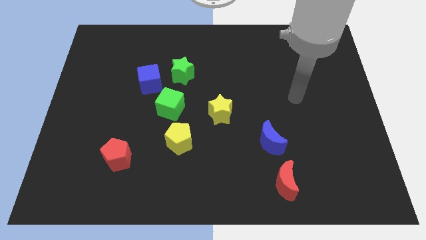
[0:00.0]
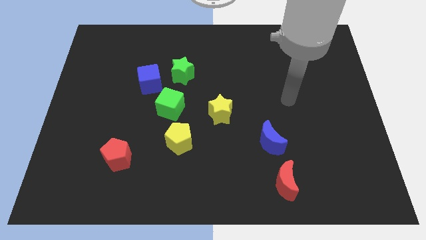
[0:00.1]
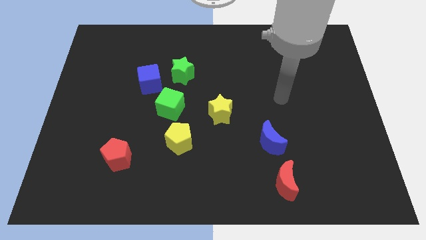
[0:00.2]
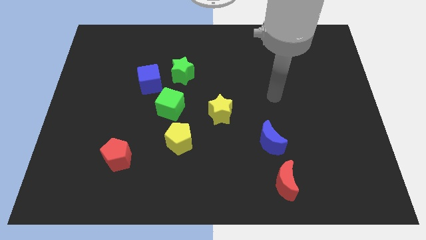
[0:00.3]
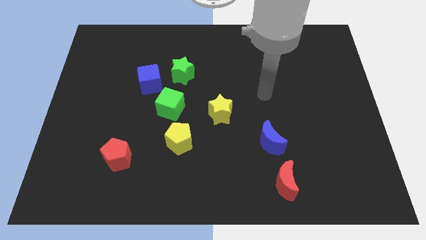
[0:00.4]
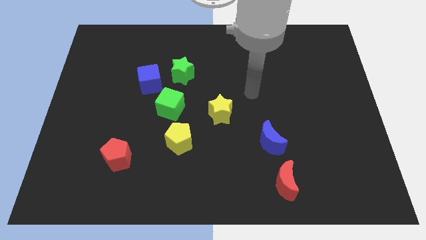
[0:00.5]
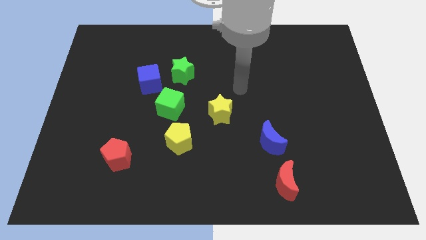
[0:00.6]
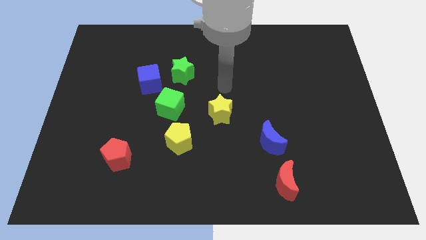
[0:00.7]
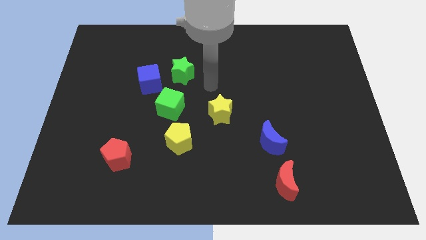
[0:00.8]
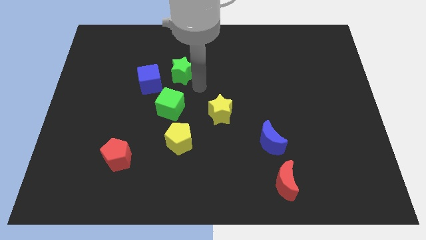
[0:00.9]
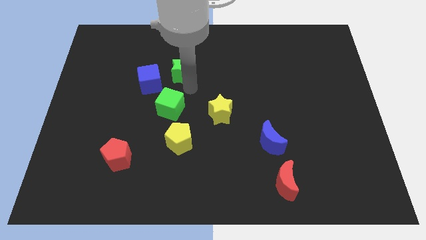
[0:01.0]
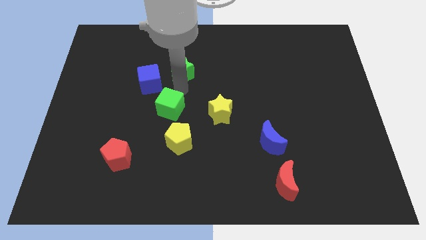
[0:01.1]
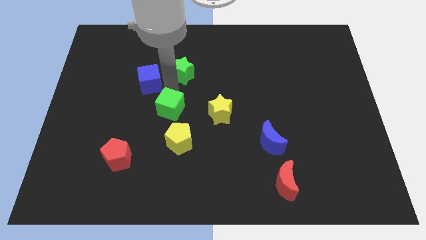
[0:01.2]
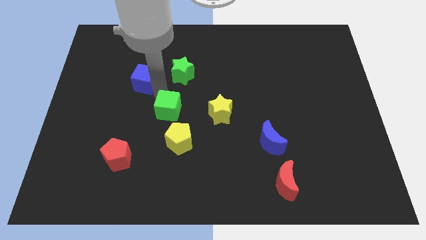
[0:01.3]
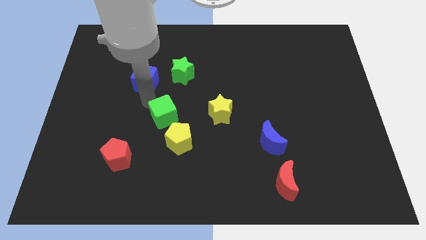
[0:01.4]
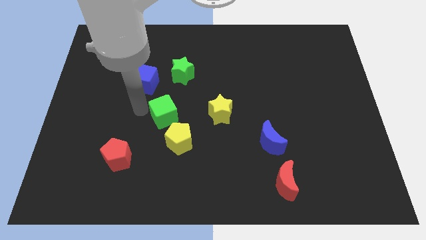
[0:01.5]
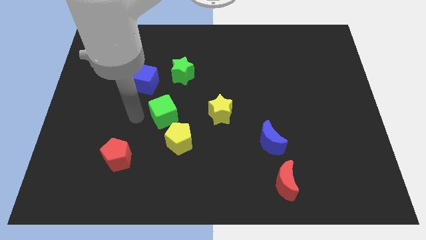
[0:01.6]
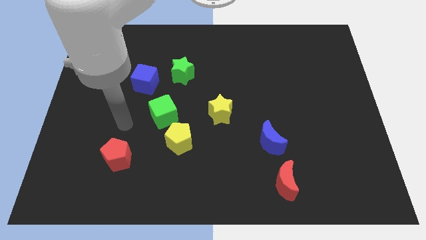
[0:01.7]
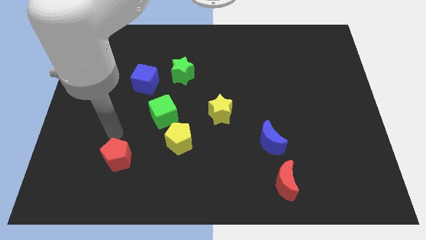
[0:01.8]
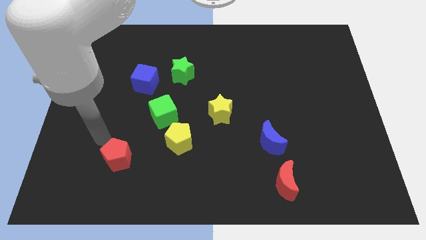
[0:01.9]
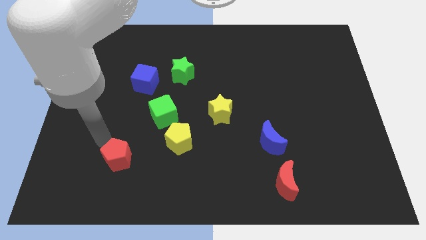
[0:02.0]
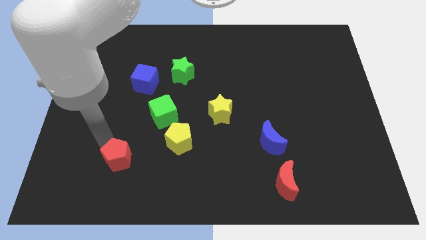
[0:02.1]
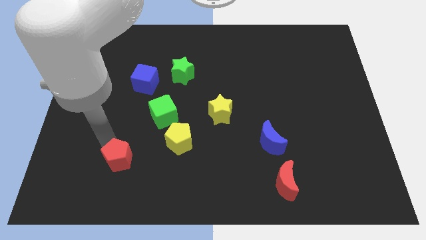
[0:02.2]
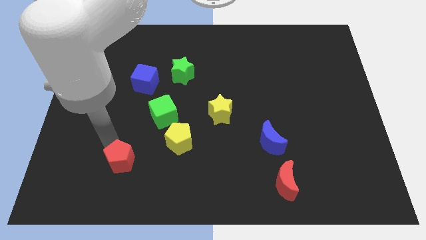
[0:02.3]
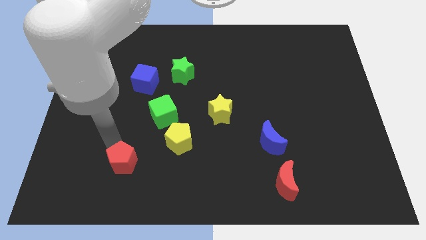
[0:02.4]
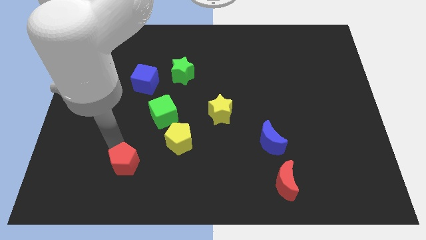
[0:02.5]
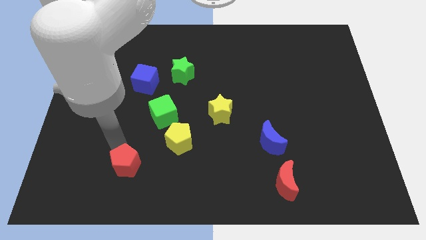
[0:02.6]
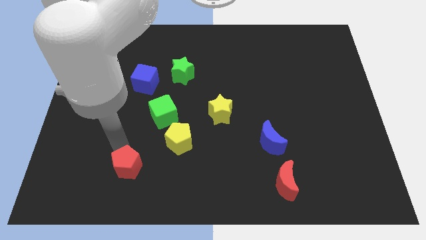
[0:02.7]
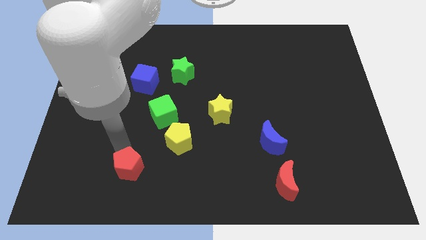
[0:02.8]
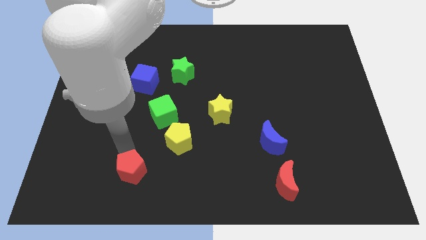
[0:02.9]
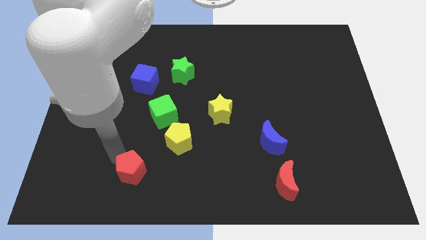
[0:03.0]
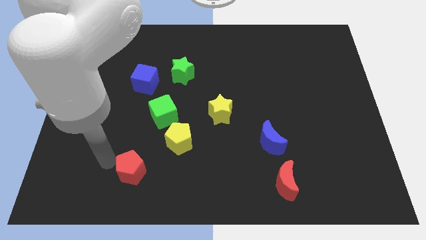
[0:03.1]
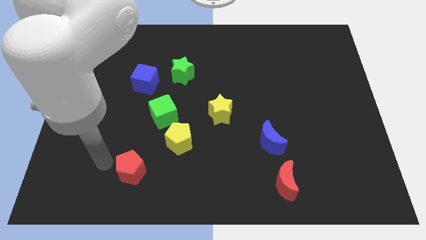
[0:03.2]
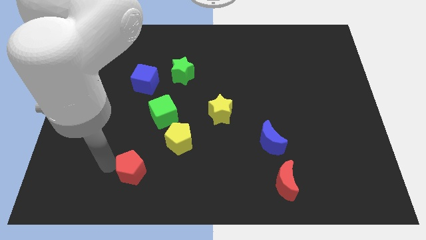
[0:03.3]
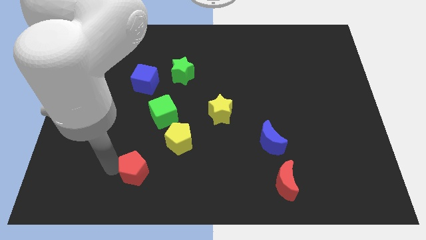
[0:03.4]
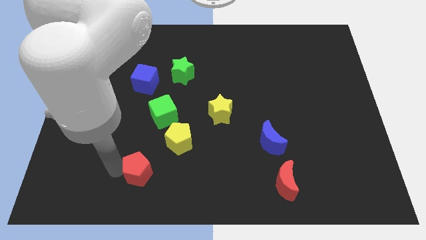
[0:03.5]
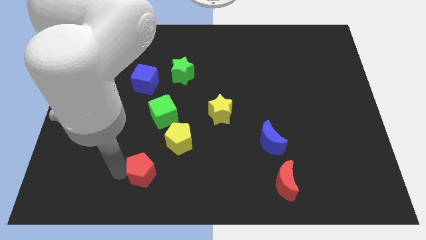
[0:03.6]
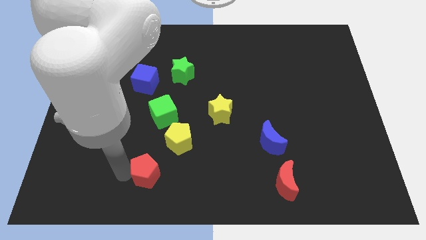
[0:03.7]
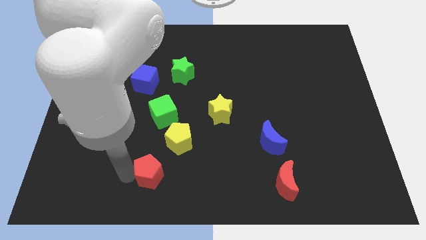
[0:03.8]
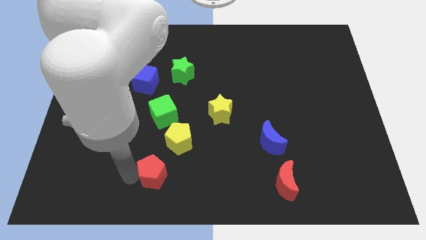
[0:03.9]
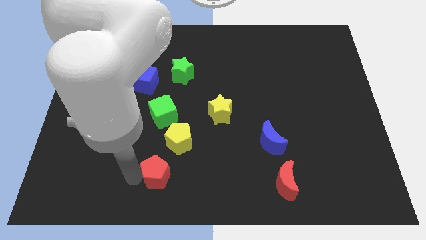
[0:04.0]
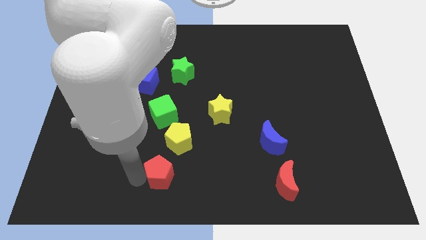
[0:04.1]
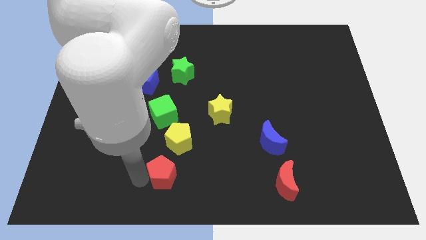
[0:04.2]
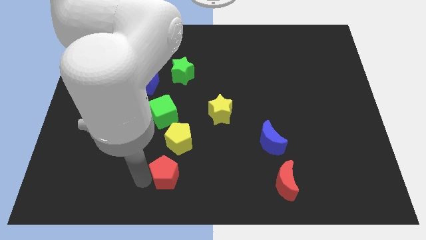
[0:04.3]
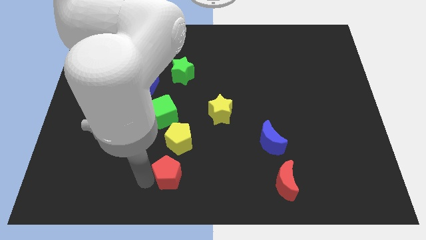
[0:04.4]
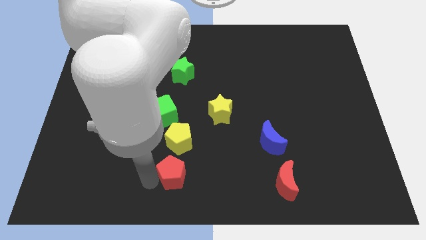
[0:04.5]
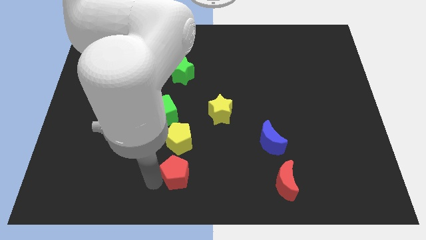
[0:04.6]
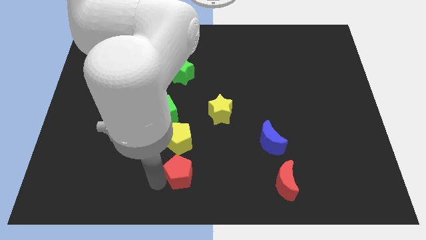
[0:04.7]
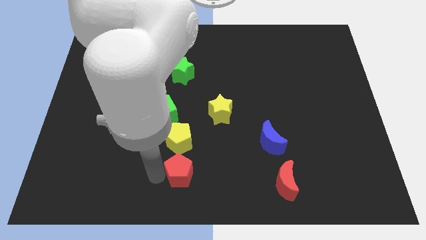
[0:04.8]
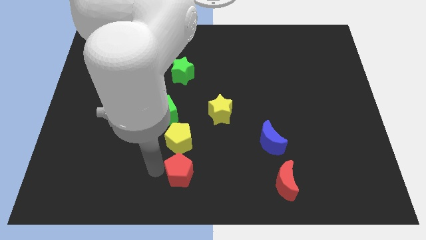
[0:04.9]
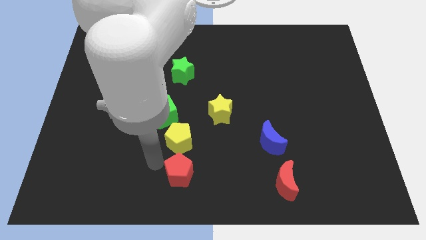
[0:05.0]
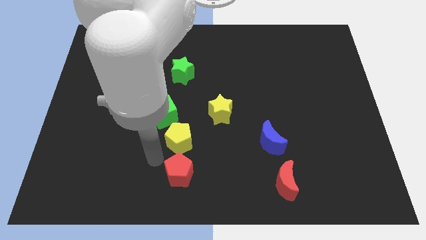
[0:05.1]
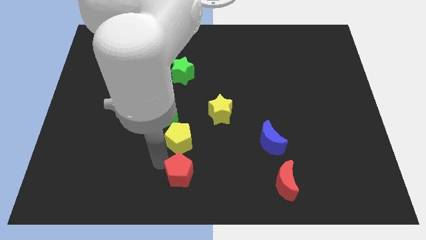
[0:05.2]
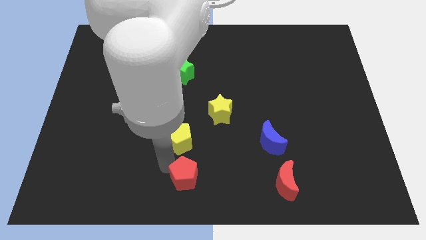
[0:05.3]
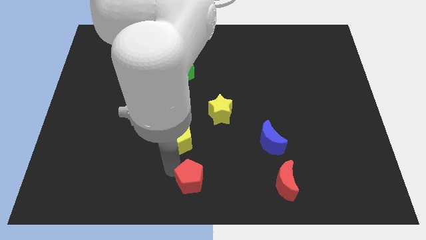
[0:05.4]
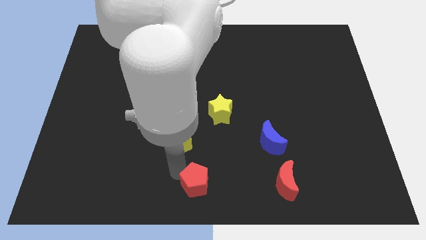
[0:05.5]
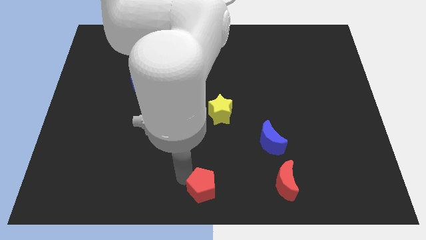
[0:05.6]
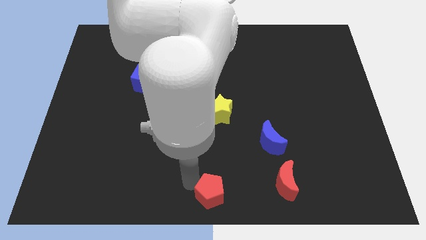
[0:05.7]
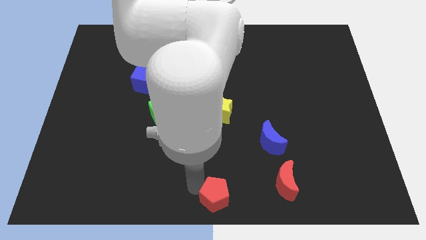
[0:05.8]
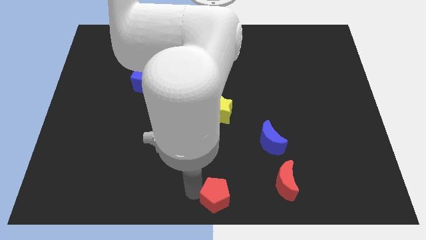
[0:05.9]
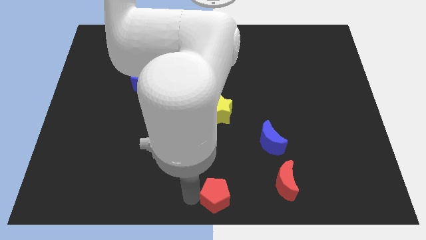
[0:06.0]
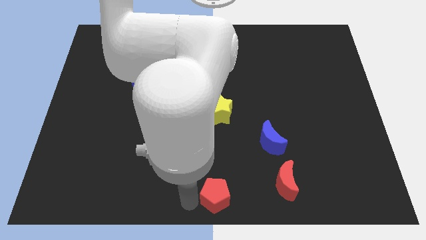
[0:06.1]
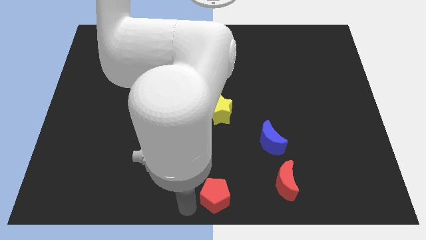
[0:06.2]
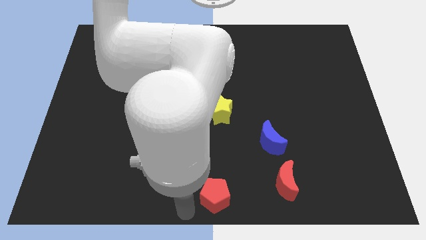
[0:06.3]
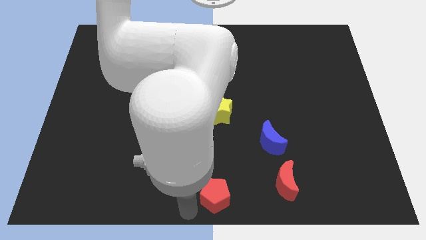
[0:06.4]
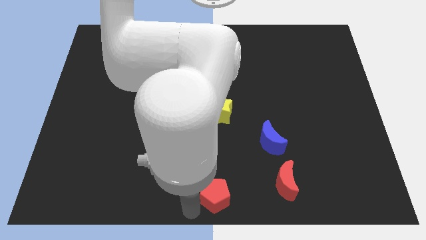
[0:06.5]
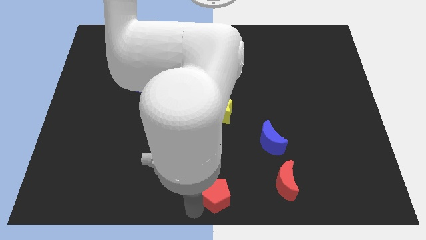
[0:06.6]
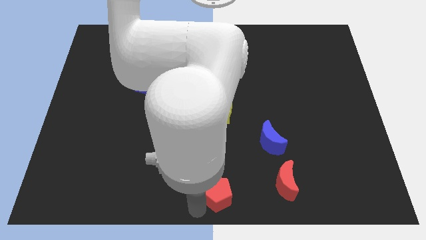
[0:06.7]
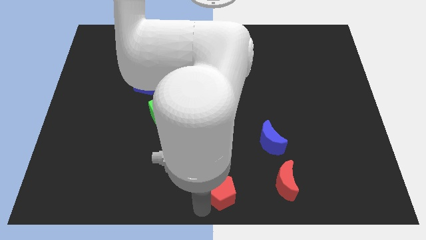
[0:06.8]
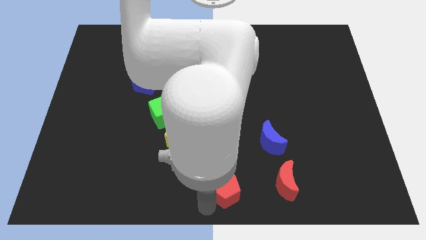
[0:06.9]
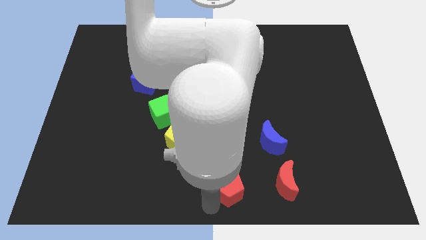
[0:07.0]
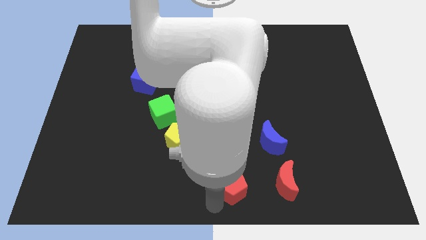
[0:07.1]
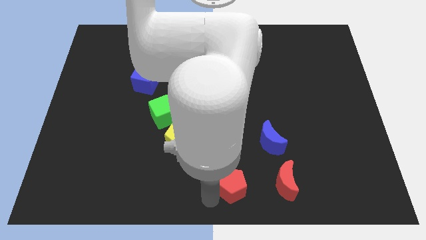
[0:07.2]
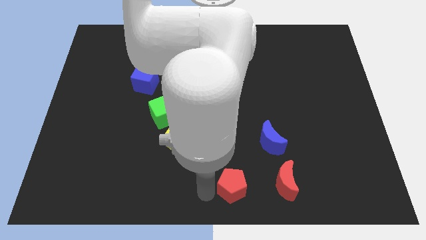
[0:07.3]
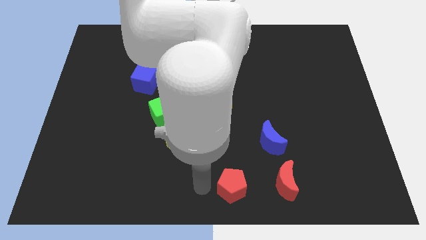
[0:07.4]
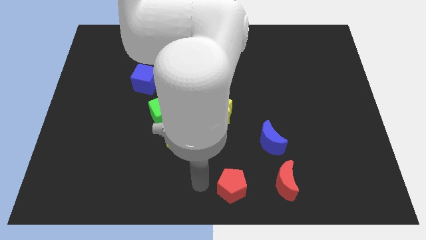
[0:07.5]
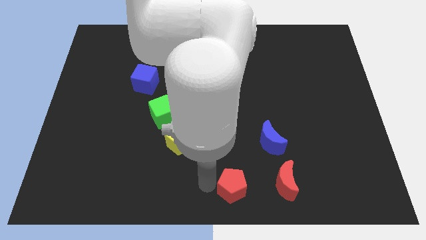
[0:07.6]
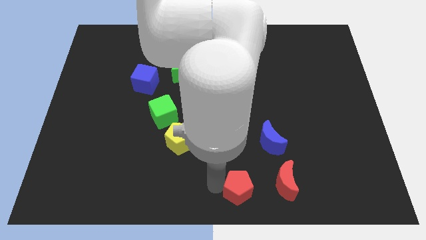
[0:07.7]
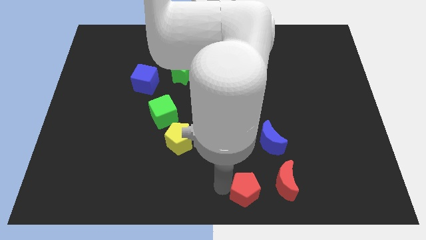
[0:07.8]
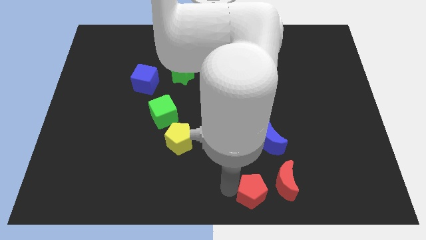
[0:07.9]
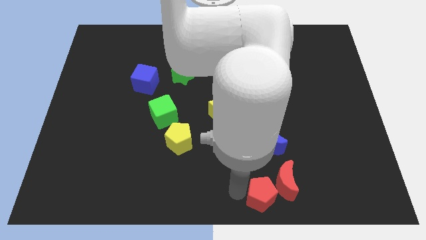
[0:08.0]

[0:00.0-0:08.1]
put the red pentagon close to the red moon
